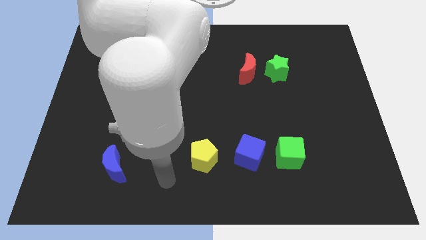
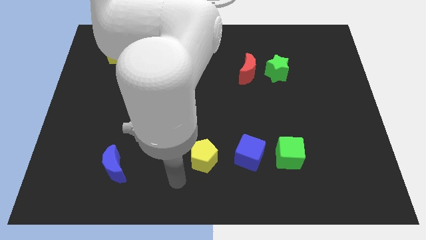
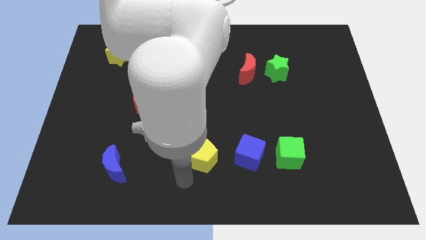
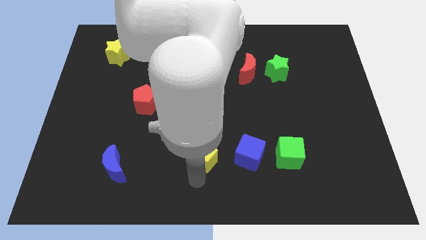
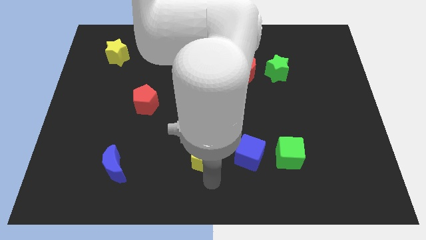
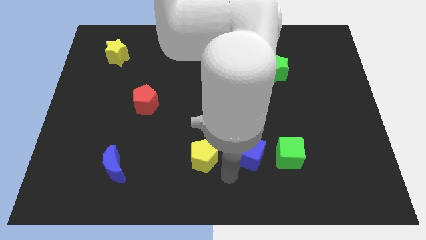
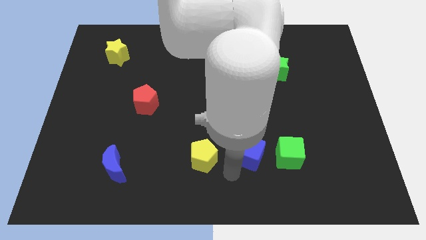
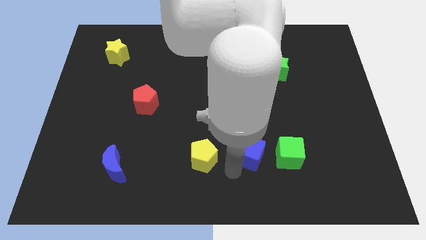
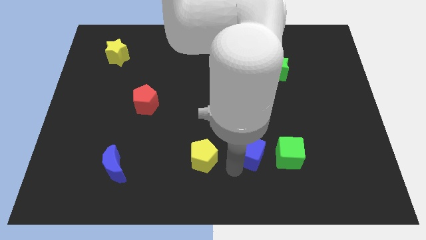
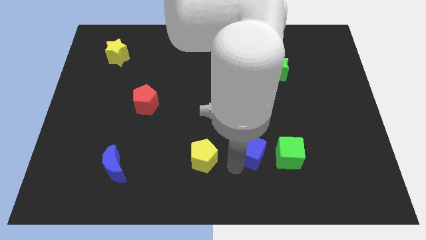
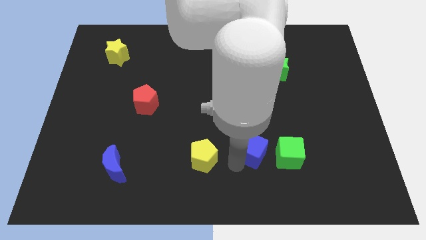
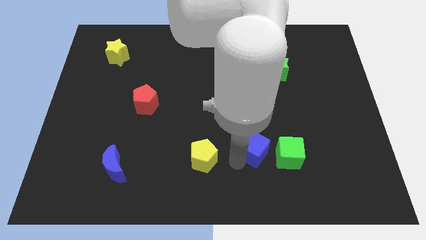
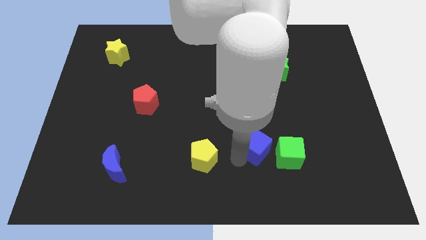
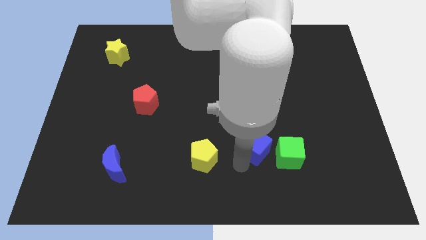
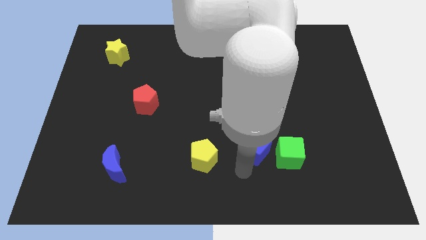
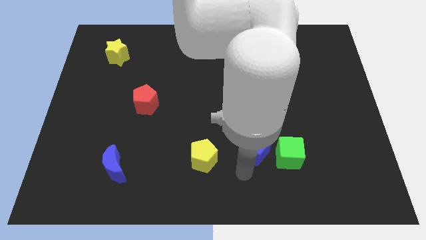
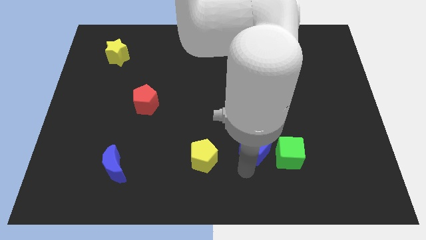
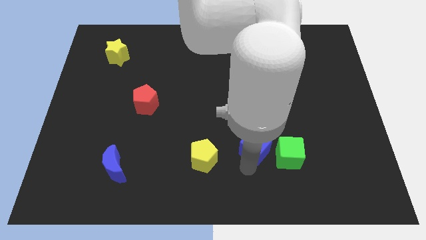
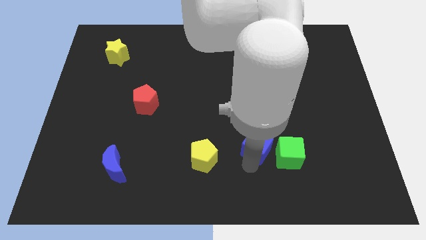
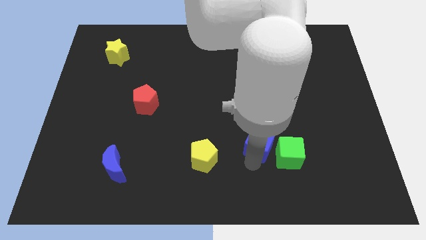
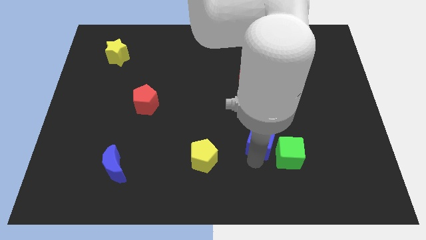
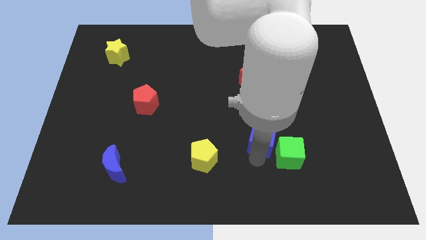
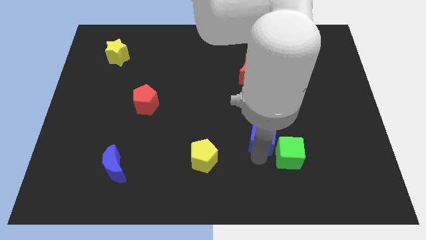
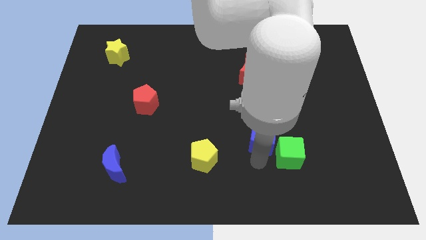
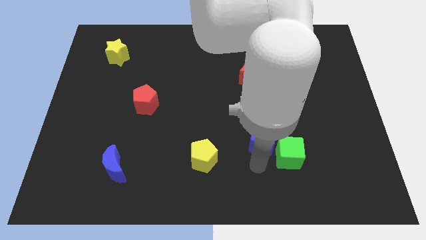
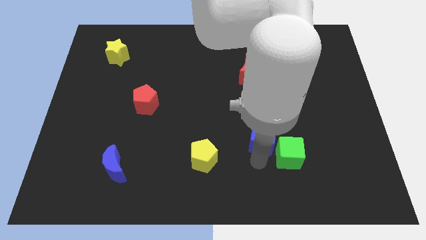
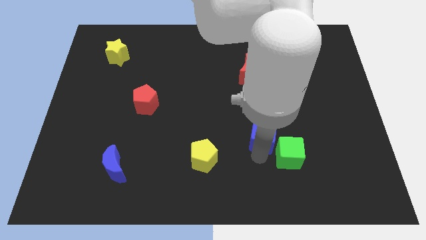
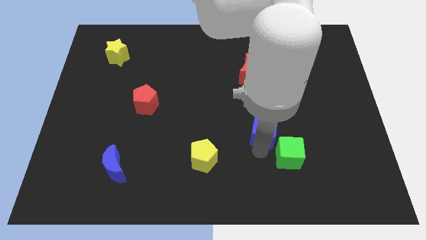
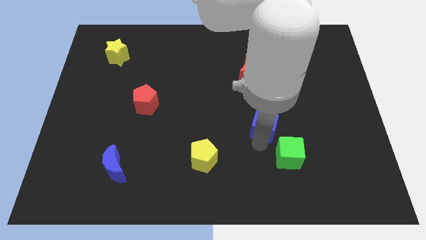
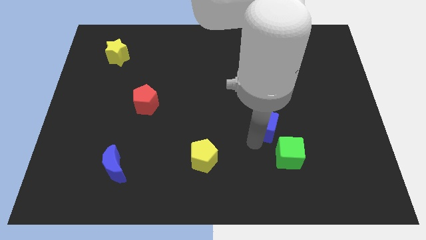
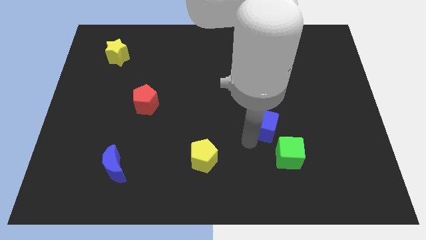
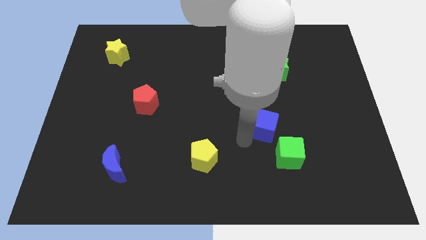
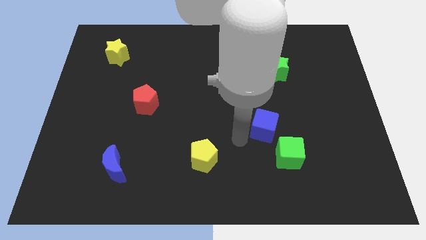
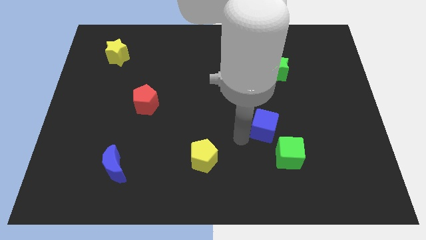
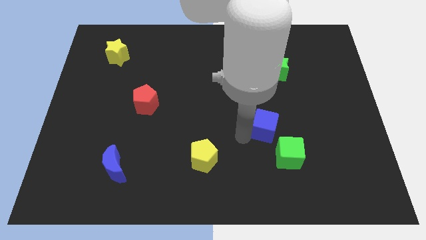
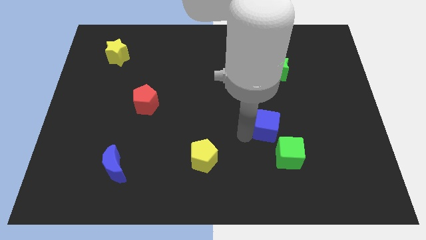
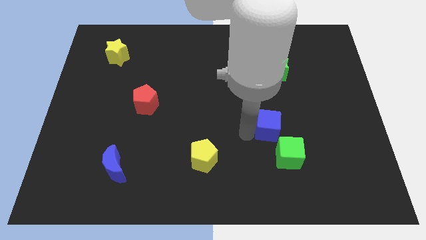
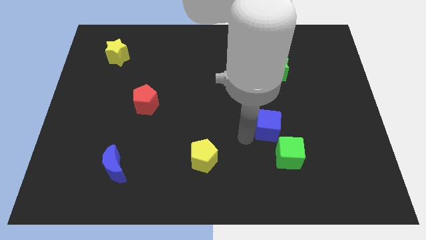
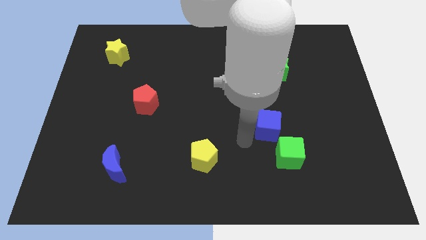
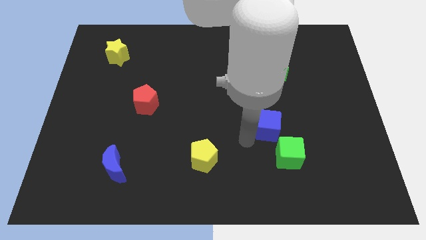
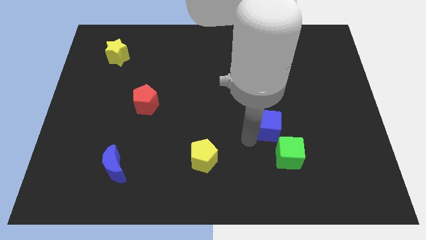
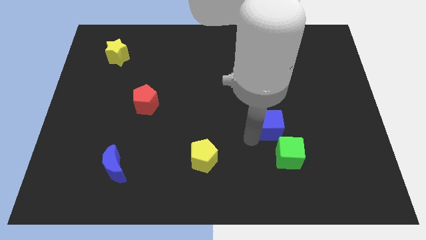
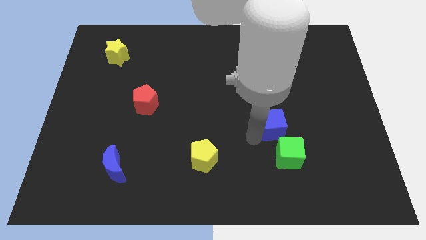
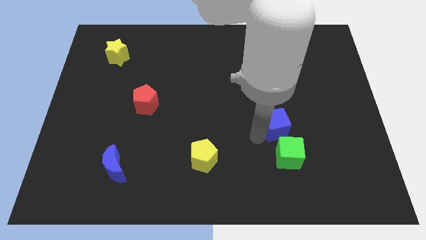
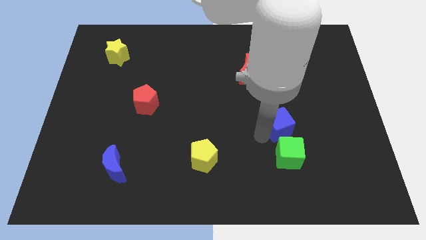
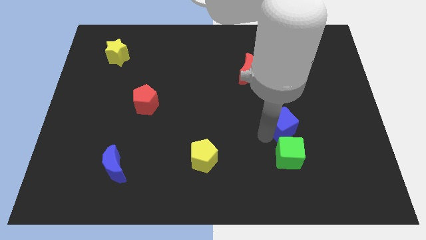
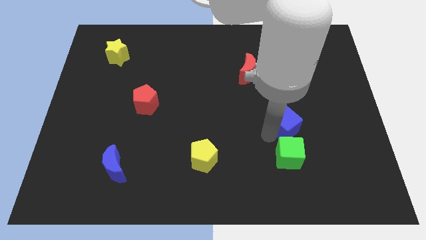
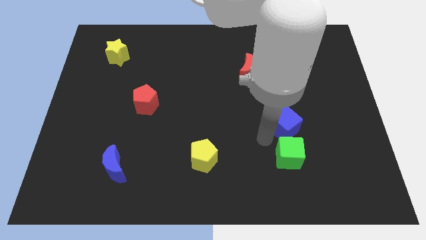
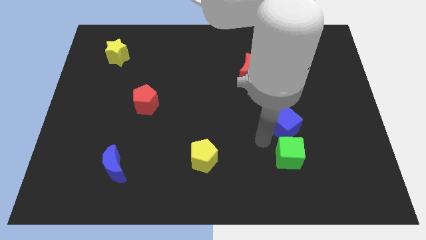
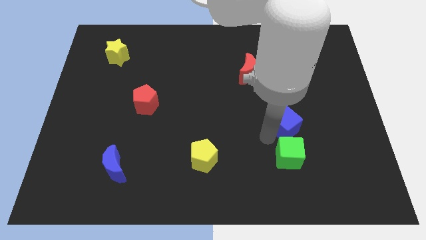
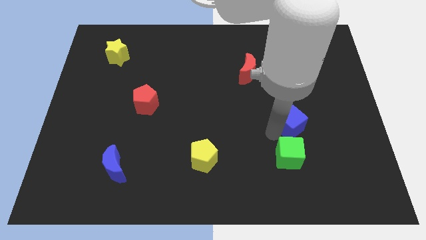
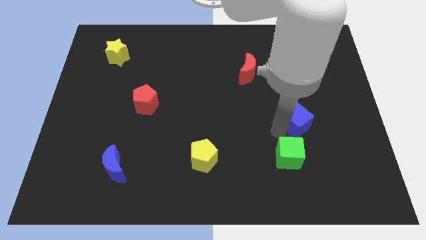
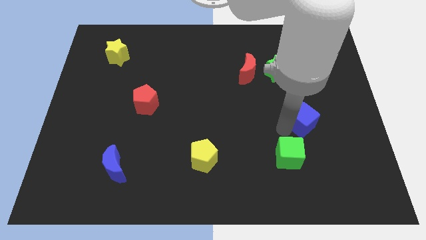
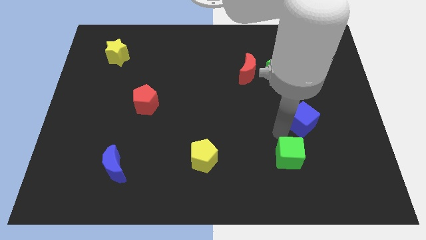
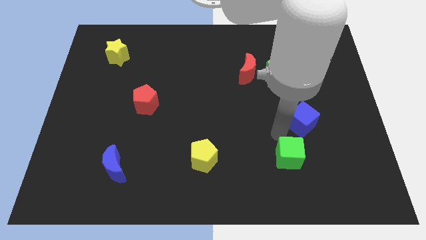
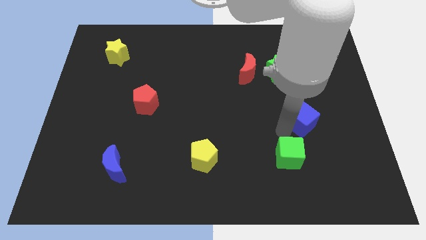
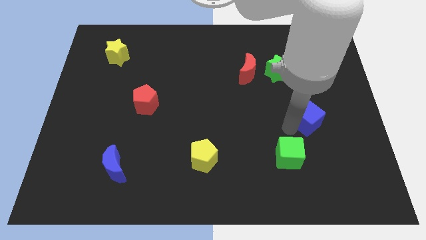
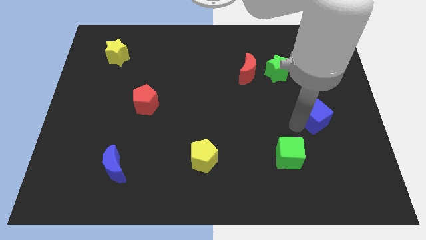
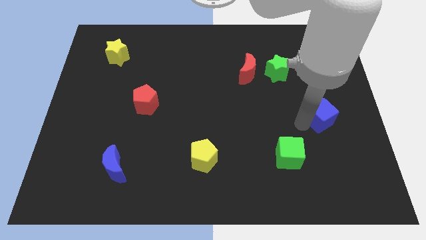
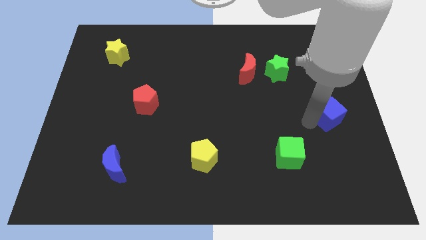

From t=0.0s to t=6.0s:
put the blue cube to the right side of the board
